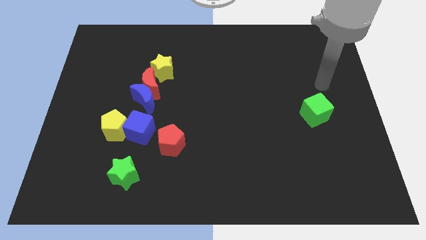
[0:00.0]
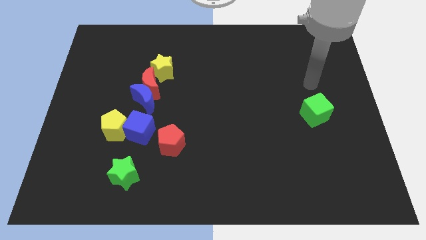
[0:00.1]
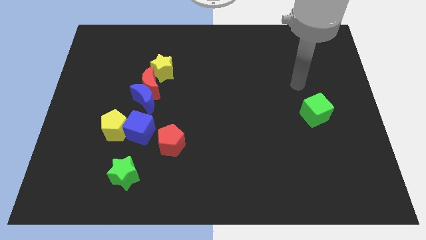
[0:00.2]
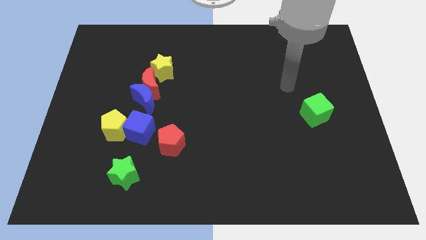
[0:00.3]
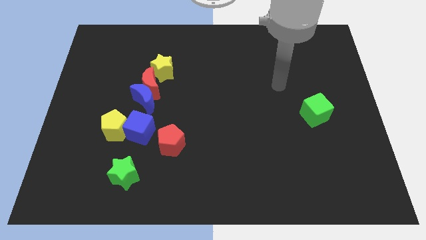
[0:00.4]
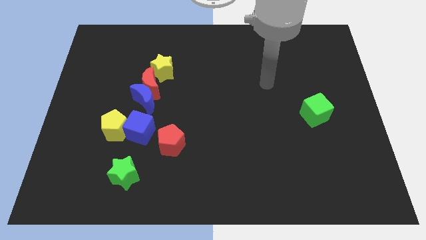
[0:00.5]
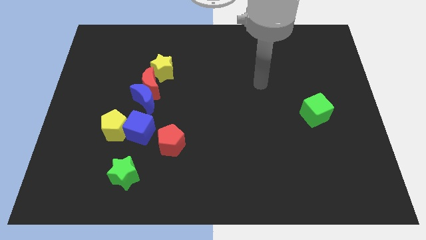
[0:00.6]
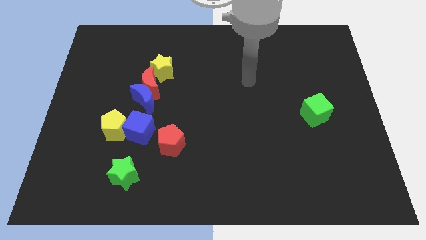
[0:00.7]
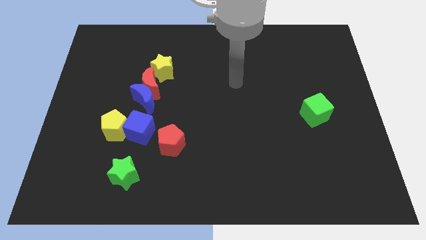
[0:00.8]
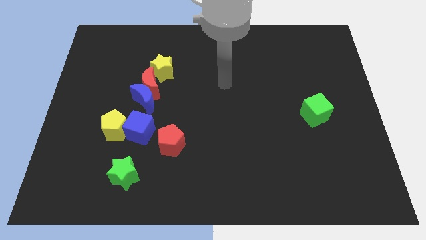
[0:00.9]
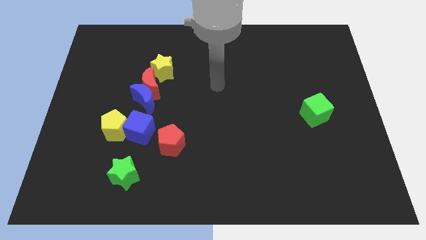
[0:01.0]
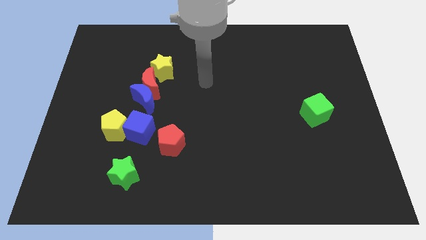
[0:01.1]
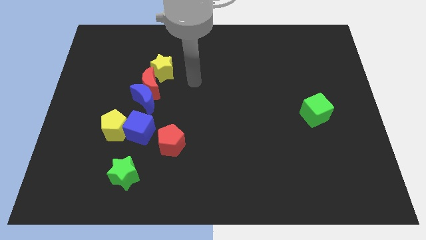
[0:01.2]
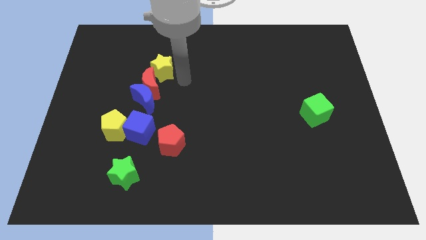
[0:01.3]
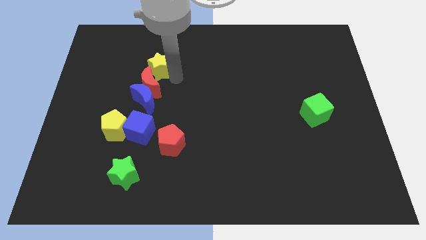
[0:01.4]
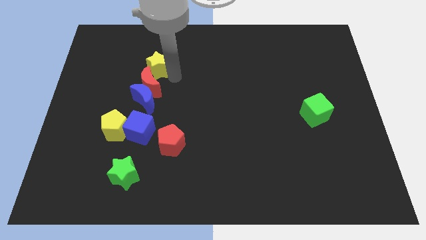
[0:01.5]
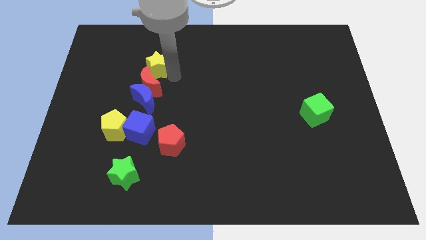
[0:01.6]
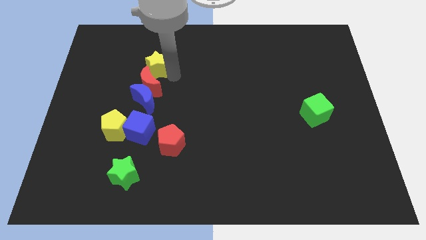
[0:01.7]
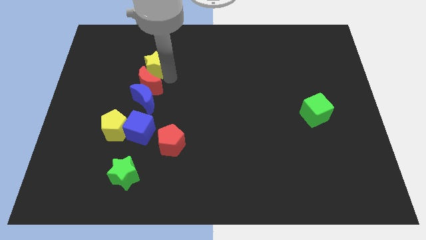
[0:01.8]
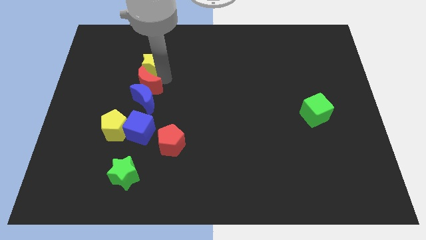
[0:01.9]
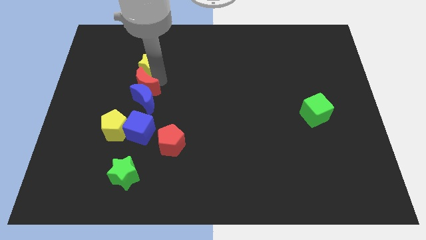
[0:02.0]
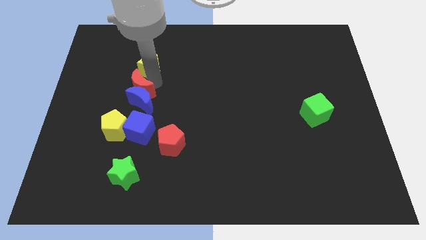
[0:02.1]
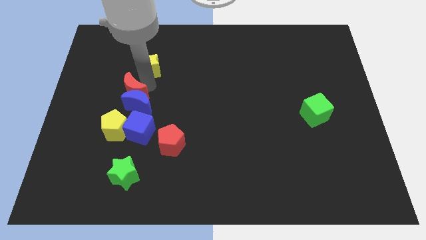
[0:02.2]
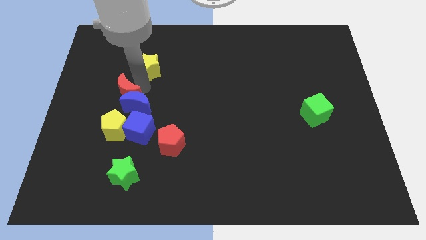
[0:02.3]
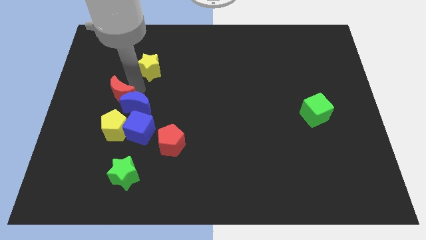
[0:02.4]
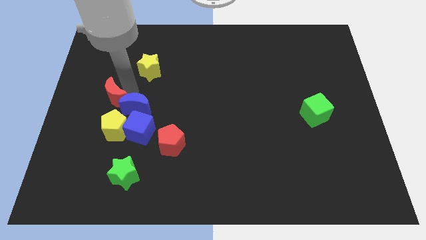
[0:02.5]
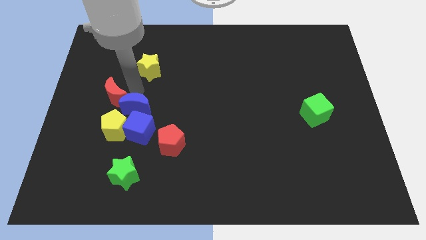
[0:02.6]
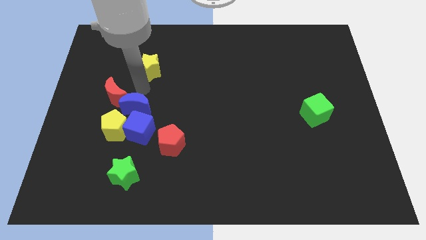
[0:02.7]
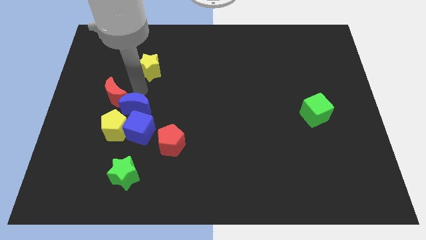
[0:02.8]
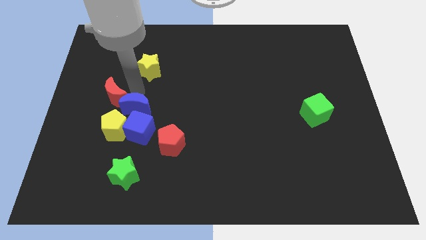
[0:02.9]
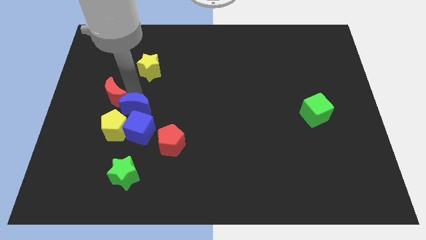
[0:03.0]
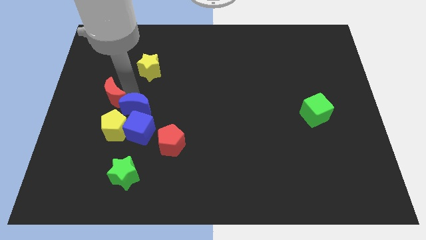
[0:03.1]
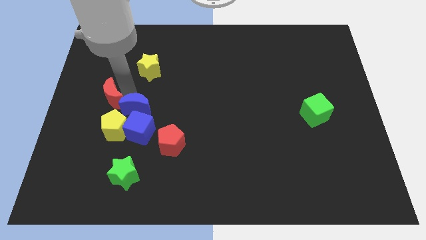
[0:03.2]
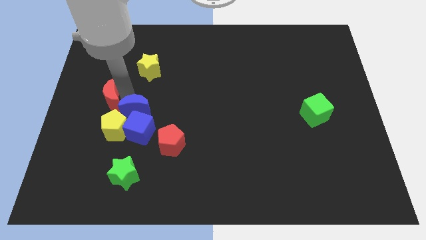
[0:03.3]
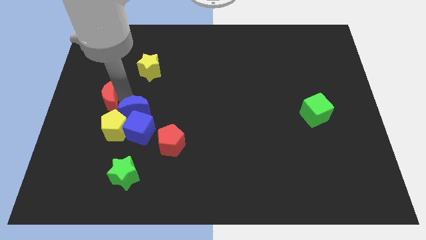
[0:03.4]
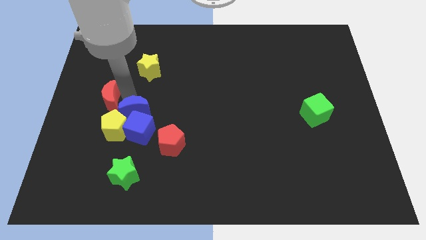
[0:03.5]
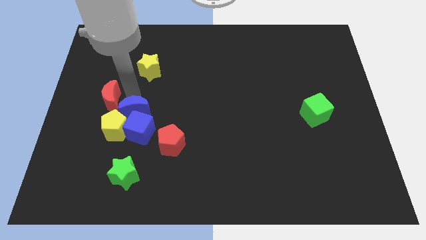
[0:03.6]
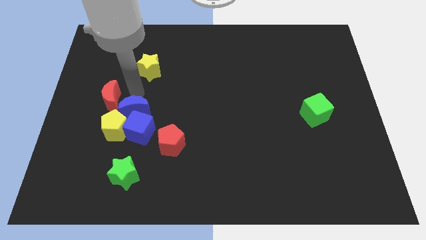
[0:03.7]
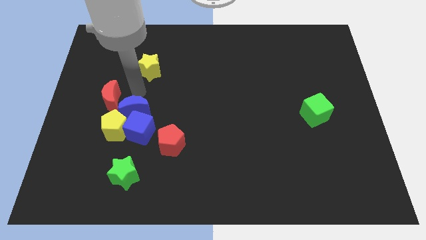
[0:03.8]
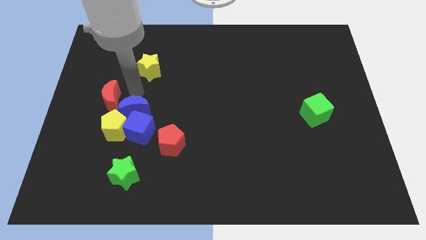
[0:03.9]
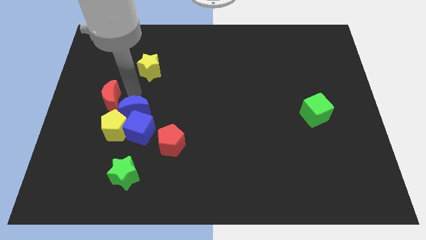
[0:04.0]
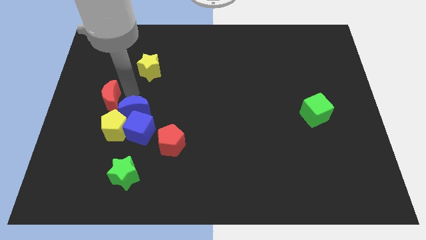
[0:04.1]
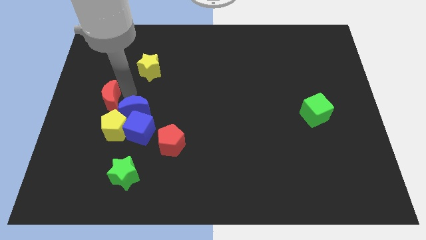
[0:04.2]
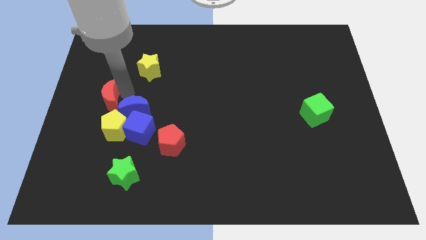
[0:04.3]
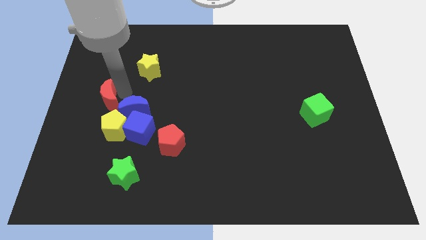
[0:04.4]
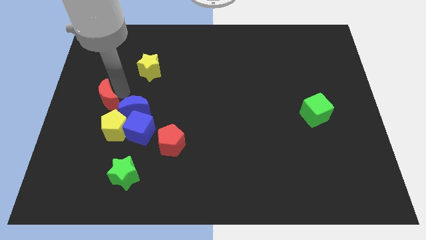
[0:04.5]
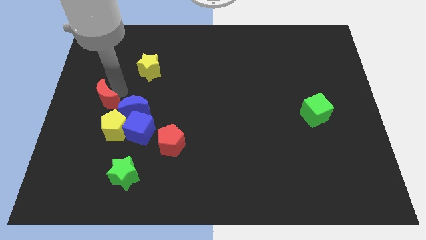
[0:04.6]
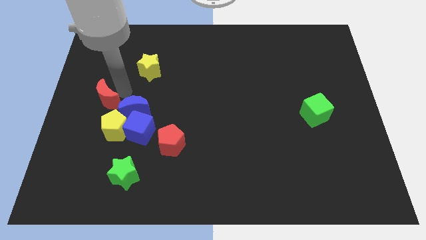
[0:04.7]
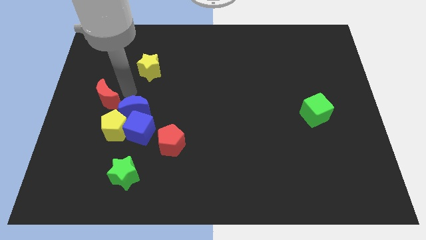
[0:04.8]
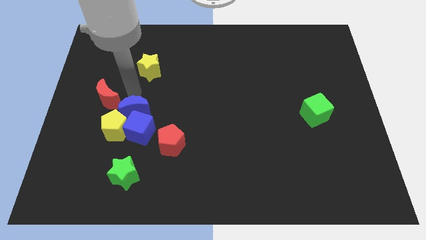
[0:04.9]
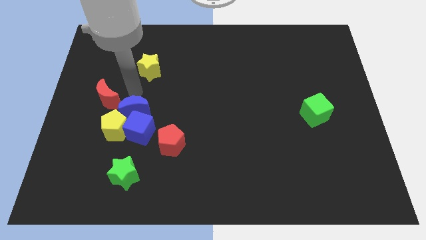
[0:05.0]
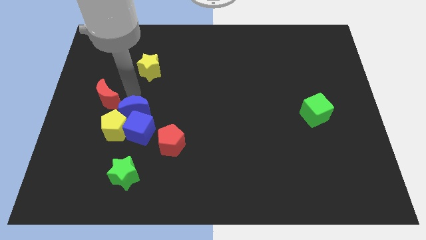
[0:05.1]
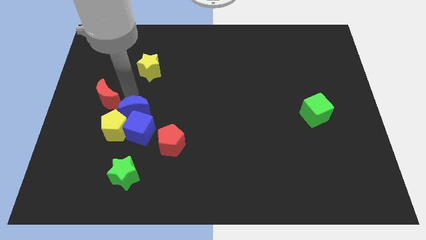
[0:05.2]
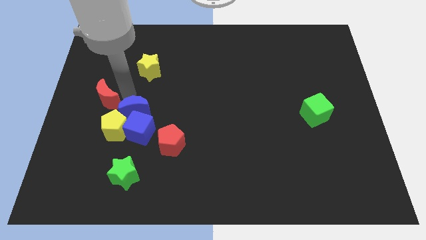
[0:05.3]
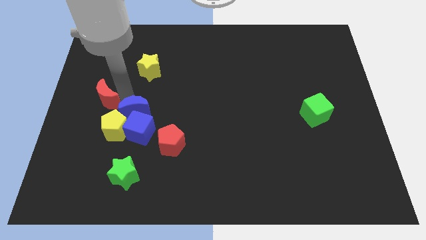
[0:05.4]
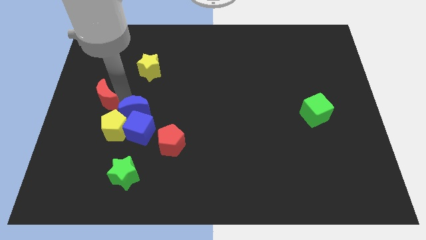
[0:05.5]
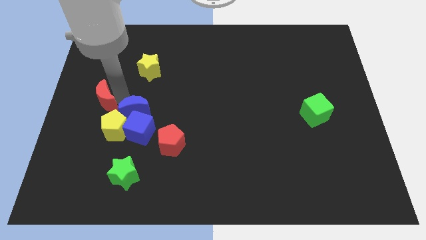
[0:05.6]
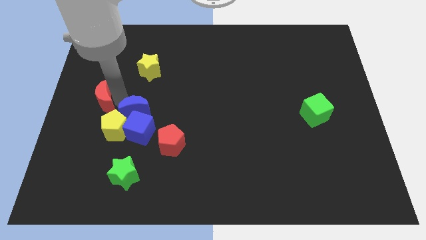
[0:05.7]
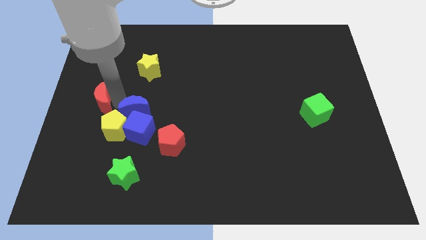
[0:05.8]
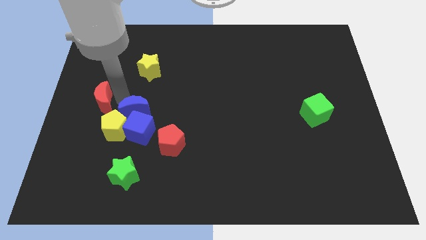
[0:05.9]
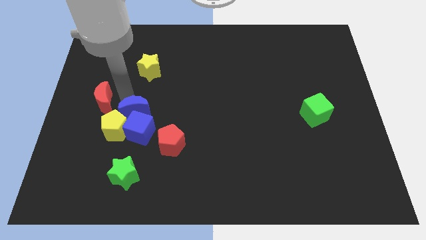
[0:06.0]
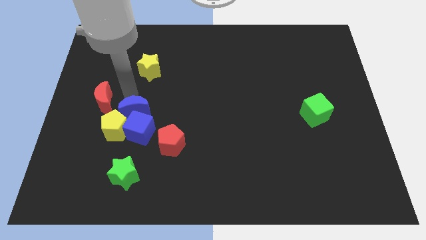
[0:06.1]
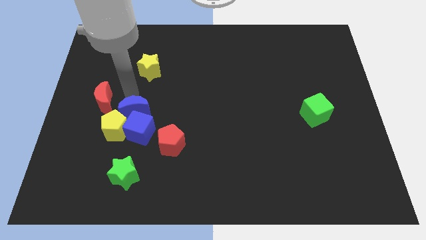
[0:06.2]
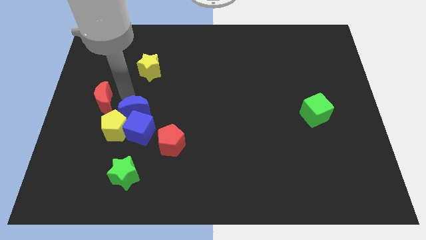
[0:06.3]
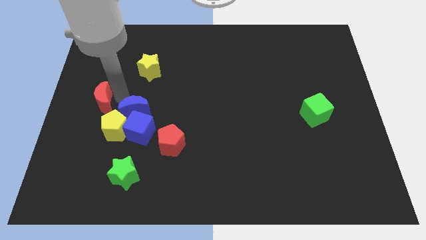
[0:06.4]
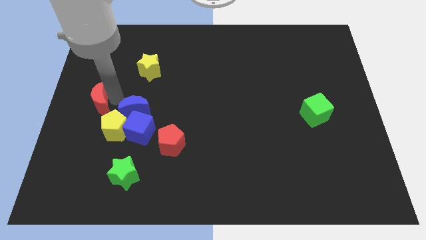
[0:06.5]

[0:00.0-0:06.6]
move the red moon away from the blue moon and yellow star

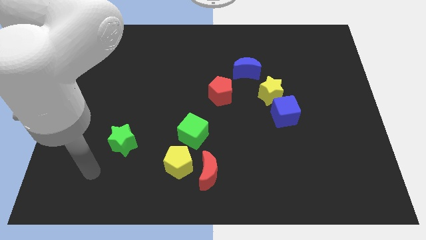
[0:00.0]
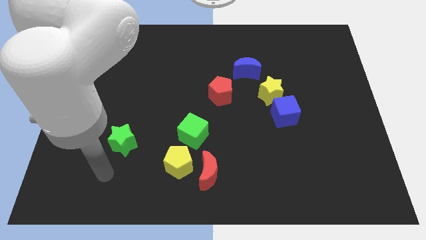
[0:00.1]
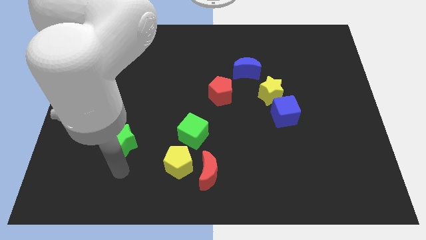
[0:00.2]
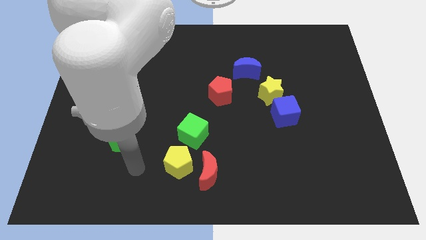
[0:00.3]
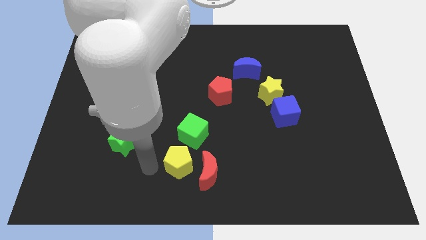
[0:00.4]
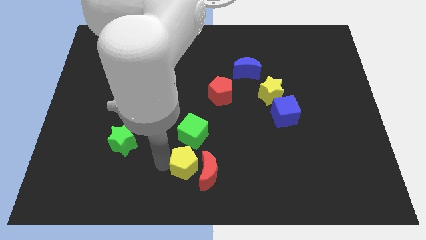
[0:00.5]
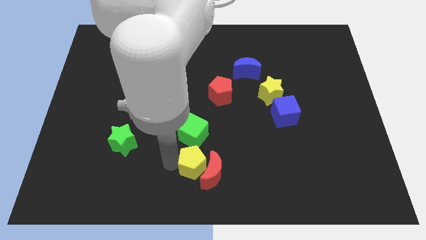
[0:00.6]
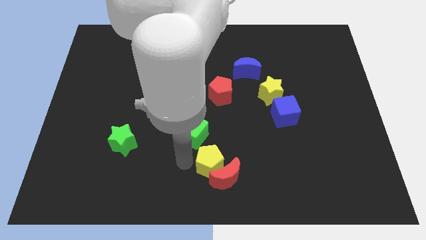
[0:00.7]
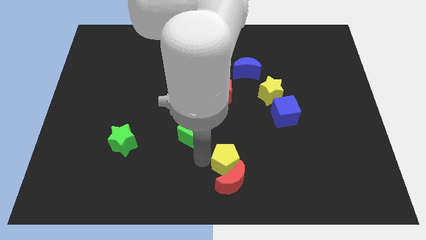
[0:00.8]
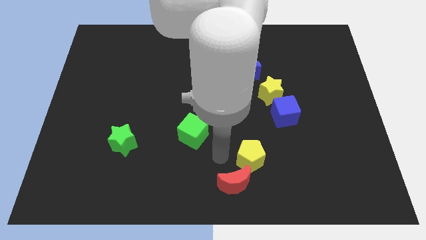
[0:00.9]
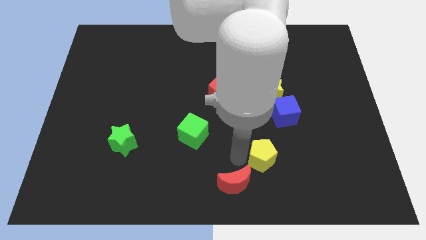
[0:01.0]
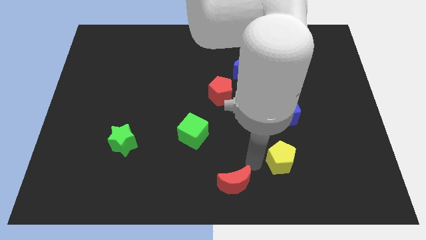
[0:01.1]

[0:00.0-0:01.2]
pull the red moon apart from the yellow pentagon

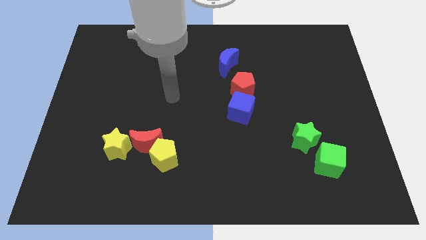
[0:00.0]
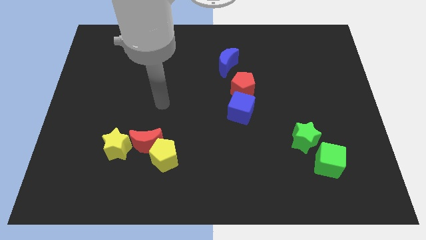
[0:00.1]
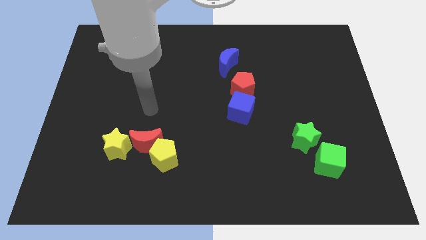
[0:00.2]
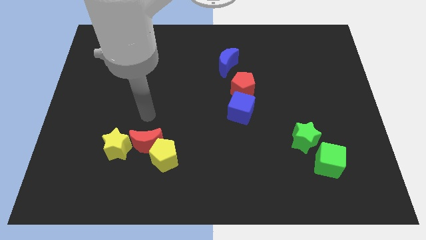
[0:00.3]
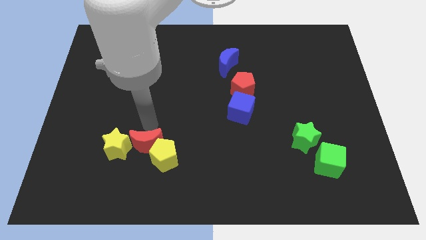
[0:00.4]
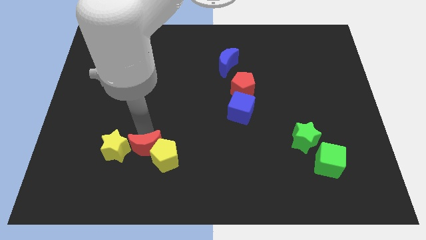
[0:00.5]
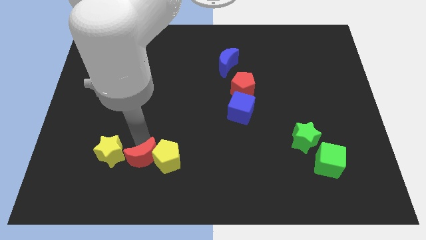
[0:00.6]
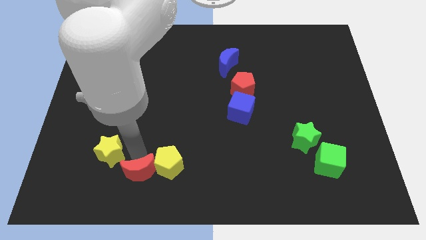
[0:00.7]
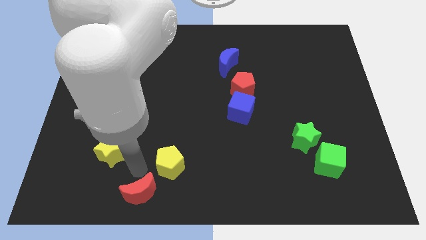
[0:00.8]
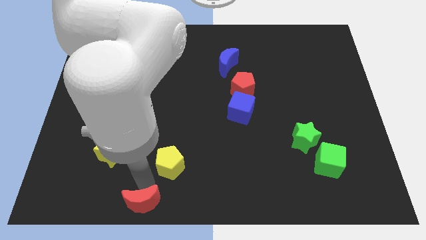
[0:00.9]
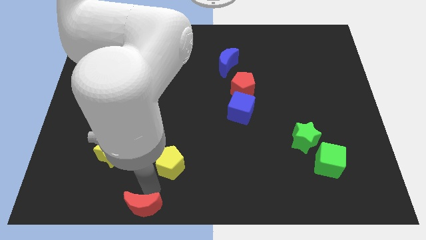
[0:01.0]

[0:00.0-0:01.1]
move the yellow pentagon away from the red moon

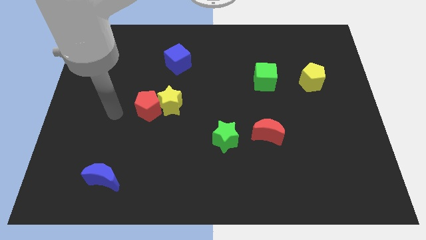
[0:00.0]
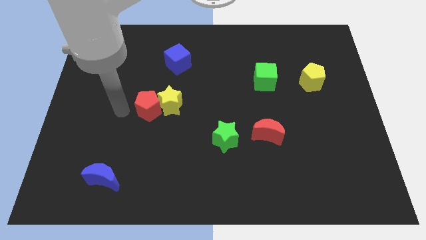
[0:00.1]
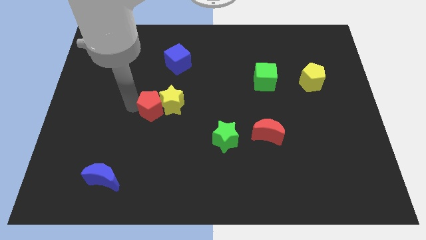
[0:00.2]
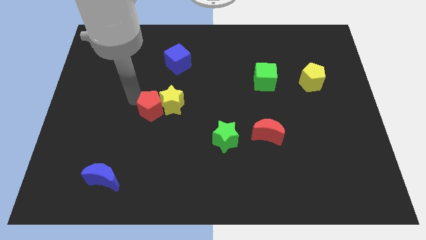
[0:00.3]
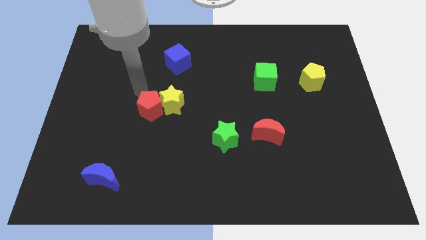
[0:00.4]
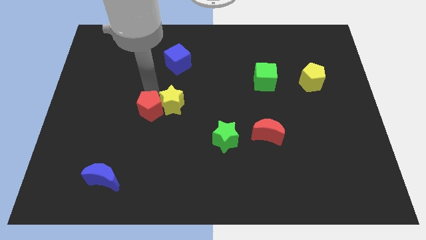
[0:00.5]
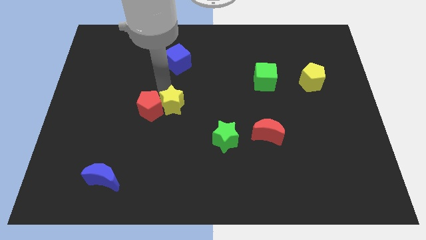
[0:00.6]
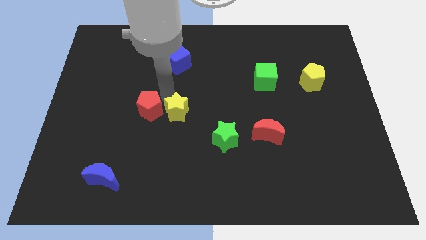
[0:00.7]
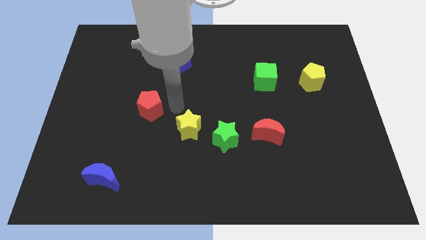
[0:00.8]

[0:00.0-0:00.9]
separate the red pentagon from the yellow star
